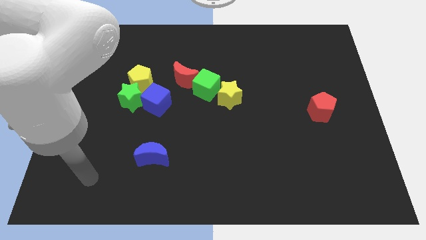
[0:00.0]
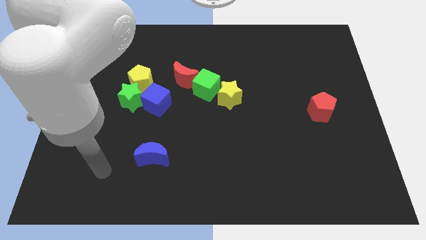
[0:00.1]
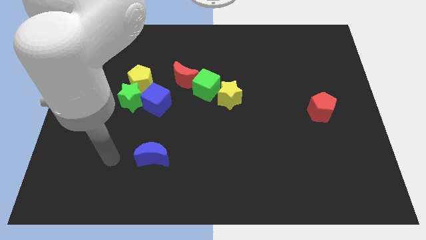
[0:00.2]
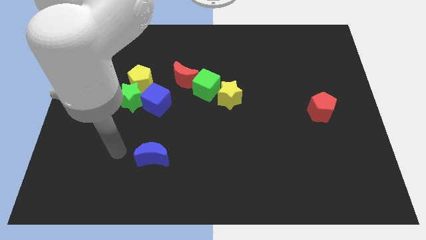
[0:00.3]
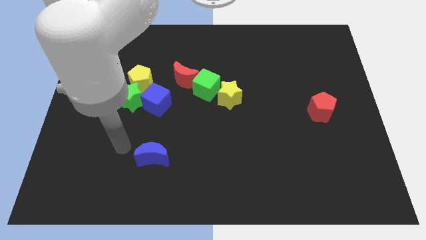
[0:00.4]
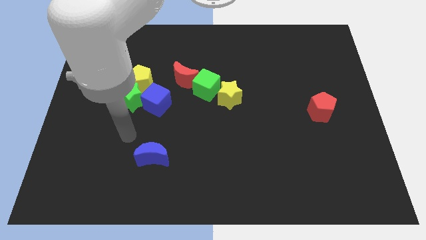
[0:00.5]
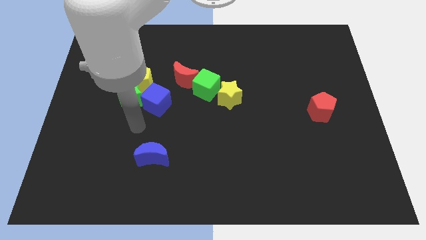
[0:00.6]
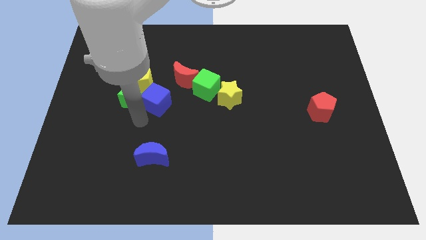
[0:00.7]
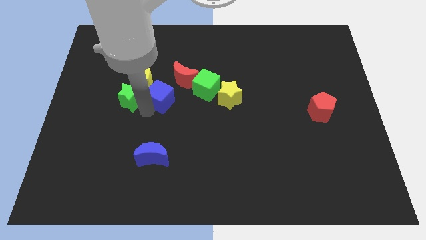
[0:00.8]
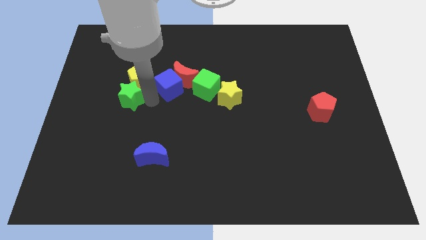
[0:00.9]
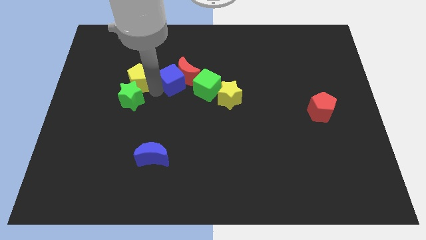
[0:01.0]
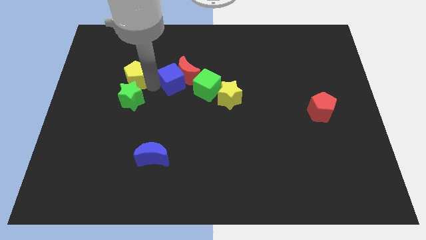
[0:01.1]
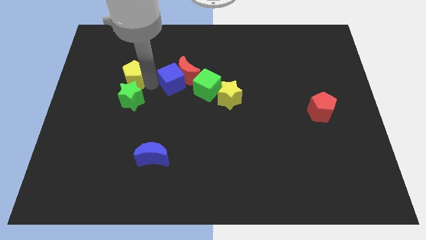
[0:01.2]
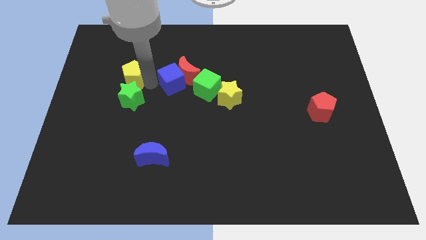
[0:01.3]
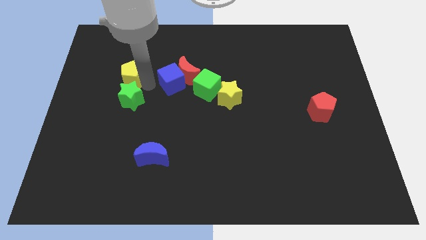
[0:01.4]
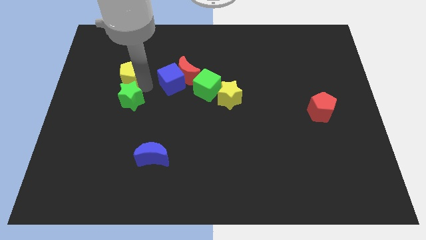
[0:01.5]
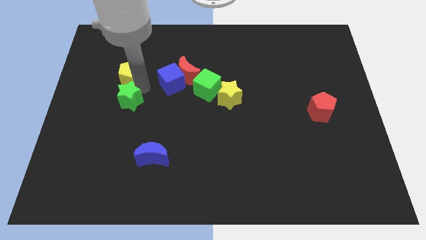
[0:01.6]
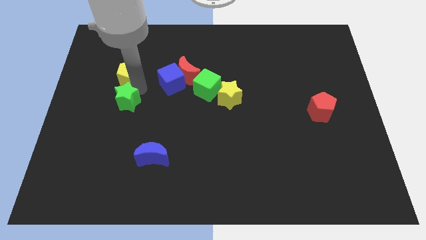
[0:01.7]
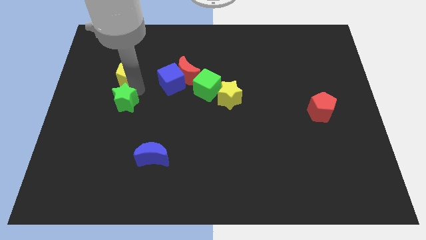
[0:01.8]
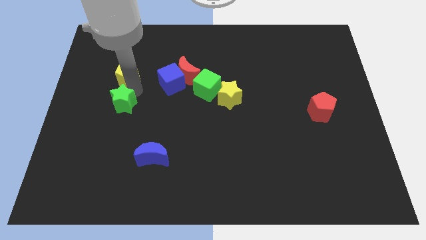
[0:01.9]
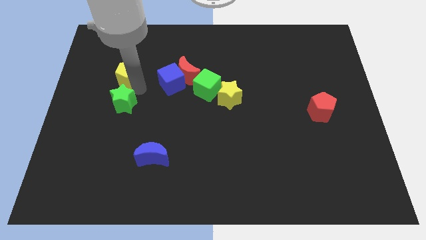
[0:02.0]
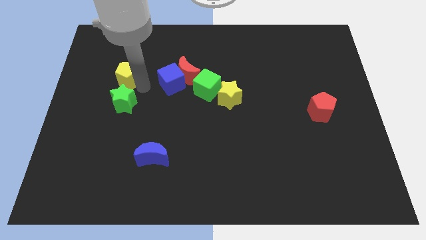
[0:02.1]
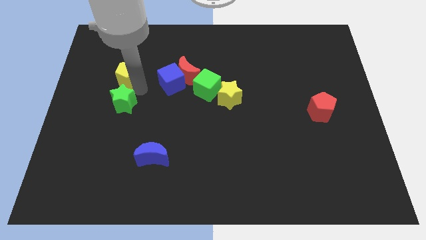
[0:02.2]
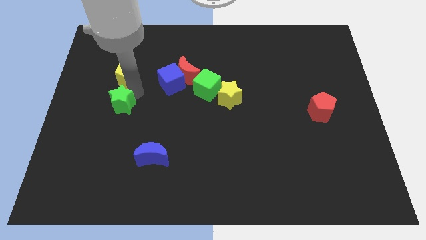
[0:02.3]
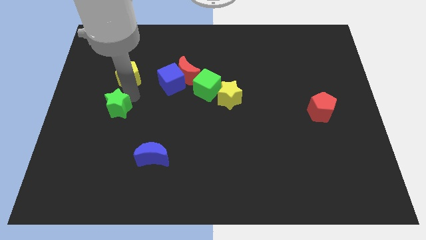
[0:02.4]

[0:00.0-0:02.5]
move the green star away from the yellow pentagon and blue cube

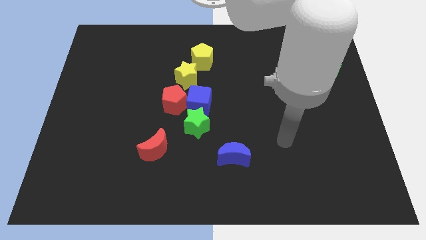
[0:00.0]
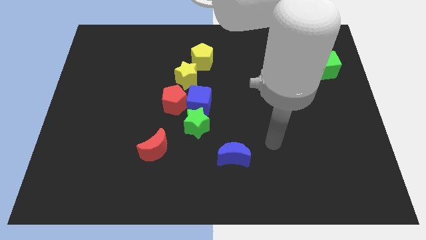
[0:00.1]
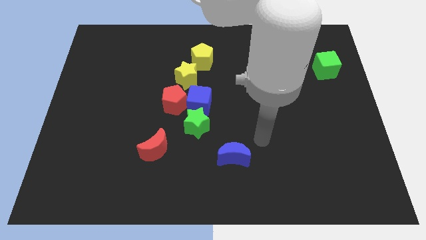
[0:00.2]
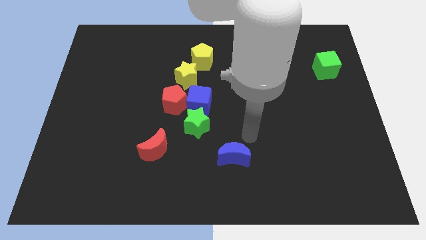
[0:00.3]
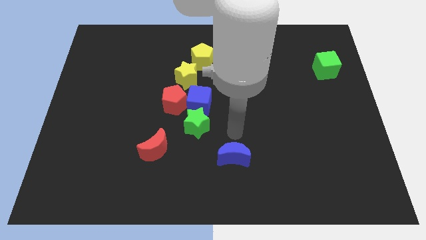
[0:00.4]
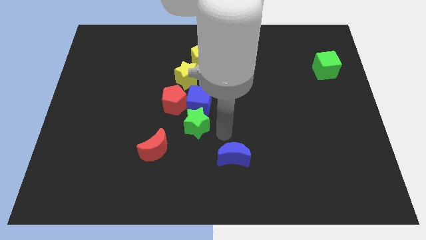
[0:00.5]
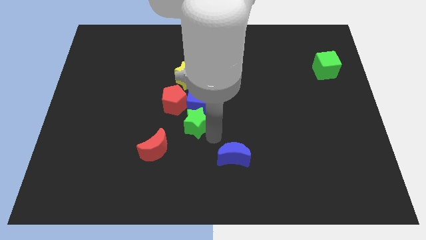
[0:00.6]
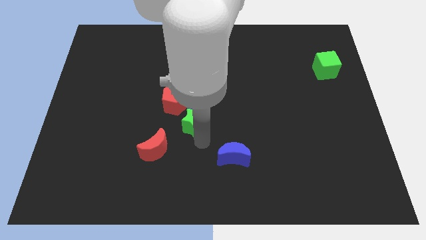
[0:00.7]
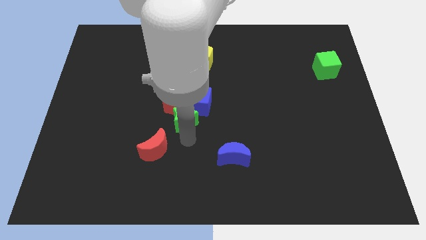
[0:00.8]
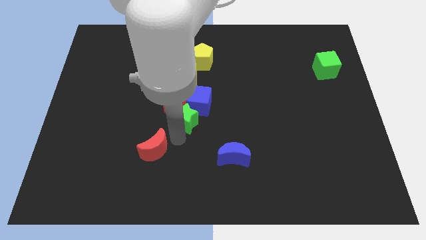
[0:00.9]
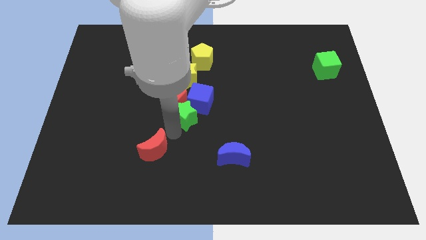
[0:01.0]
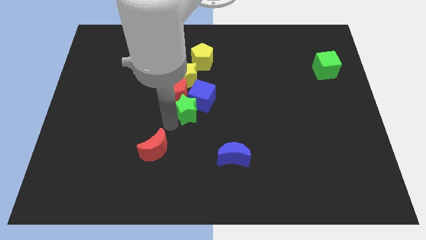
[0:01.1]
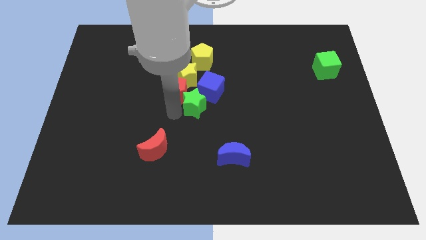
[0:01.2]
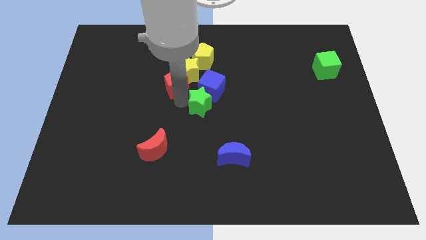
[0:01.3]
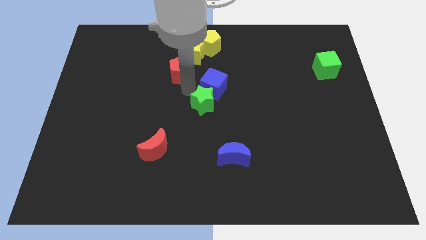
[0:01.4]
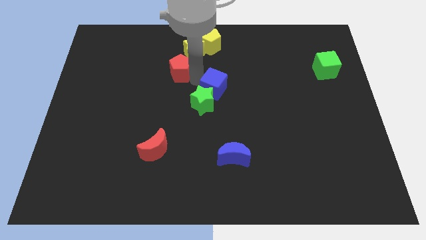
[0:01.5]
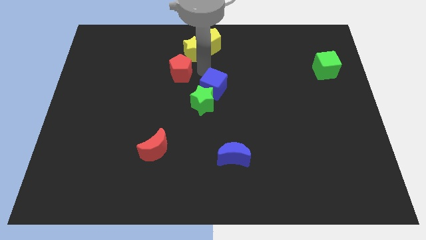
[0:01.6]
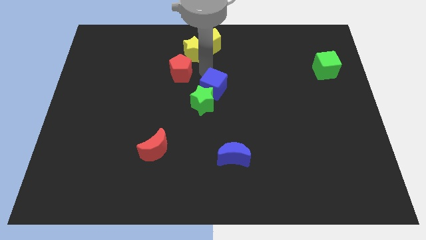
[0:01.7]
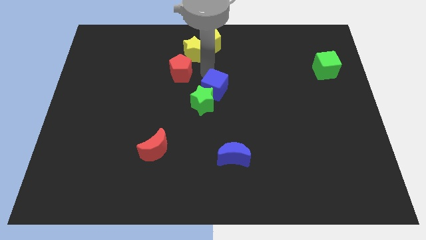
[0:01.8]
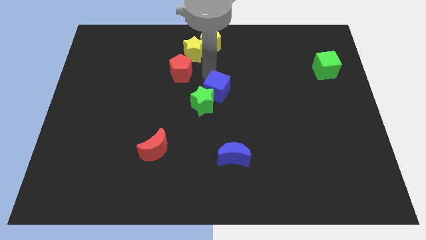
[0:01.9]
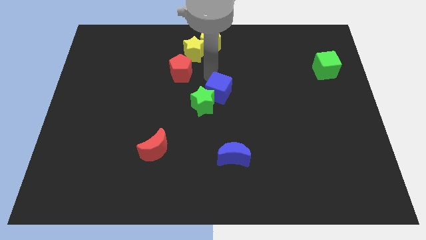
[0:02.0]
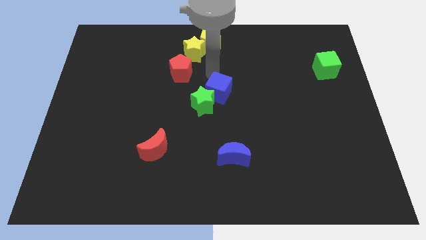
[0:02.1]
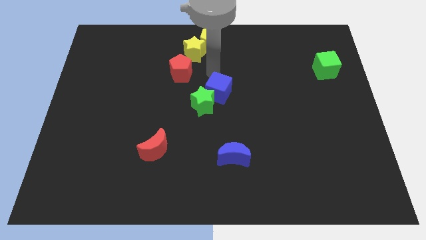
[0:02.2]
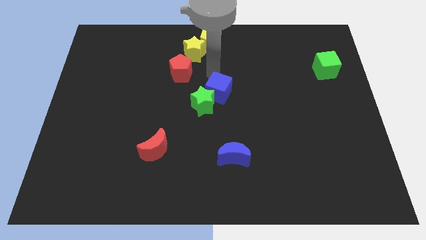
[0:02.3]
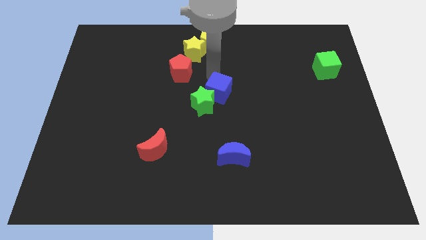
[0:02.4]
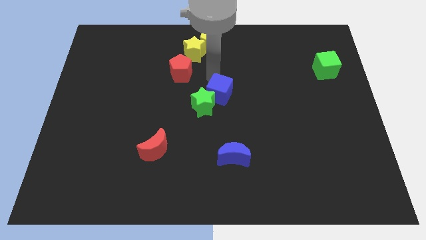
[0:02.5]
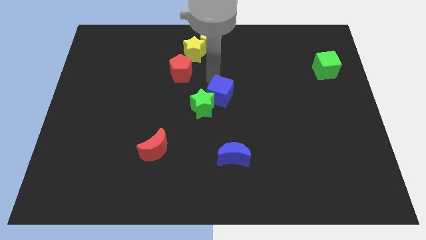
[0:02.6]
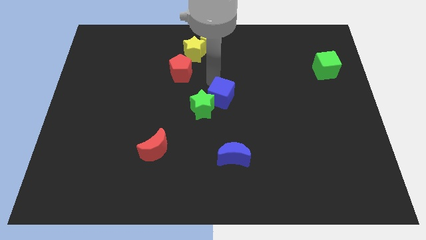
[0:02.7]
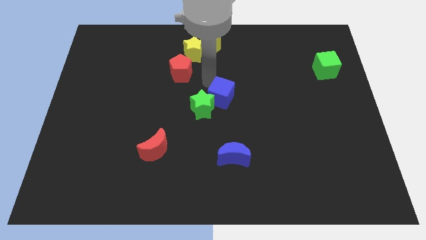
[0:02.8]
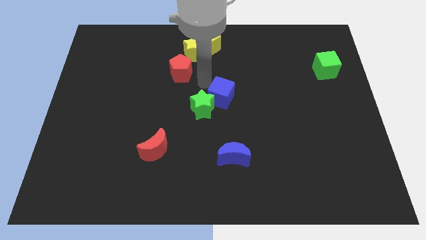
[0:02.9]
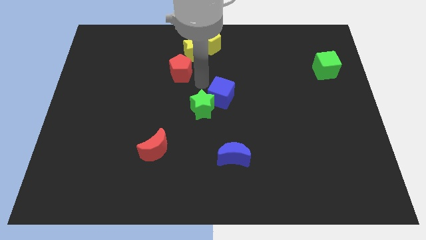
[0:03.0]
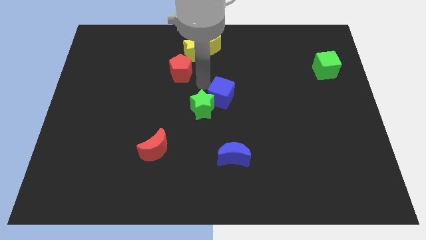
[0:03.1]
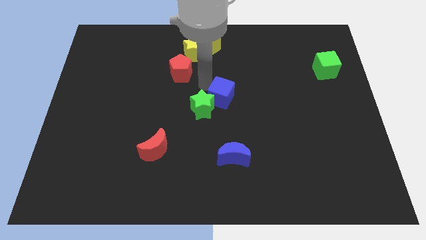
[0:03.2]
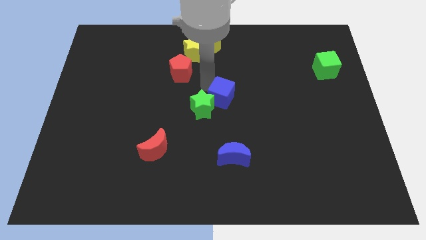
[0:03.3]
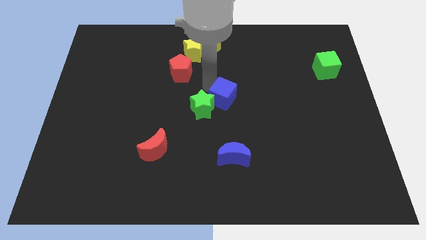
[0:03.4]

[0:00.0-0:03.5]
pull the blue cube apart from the group of blocks

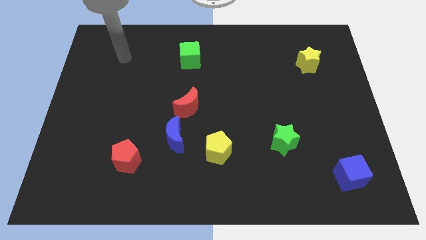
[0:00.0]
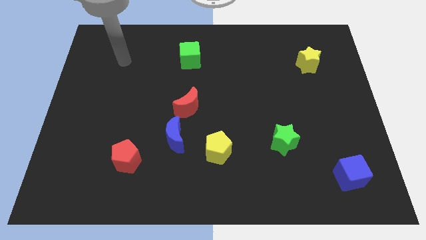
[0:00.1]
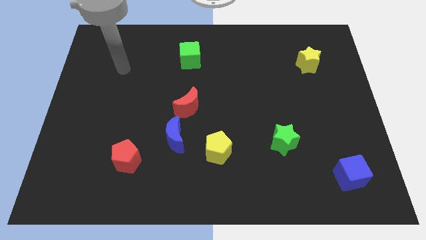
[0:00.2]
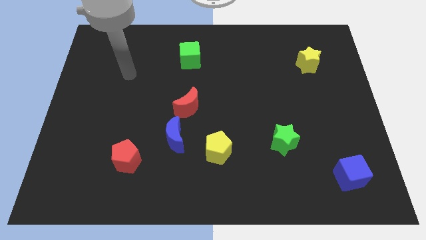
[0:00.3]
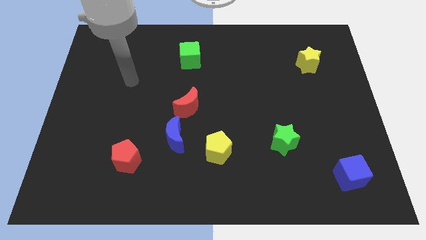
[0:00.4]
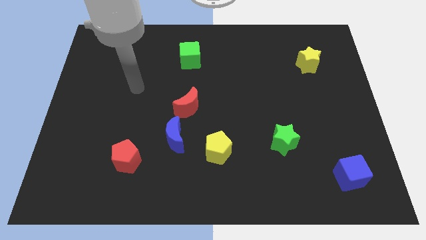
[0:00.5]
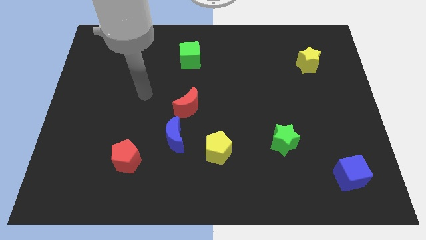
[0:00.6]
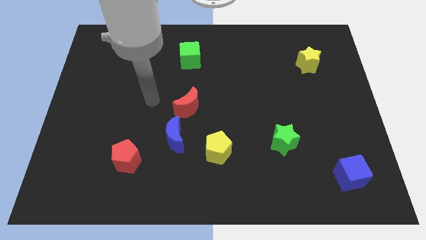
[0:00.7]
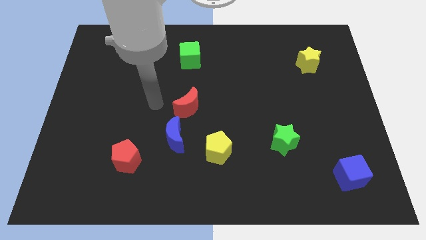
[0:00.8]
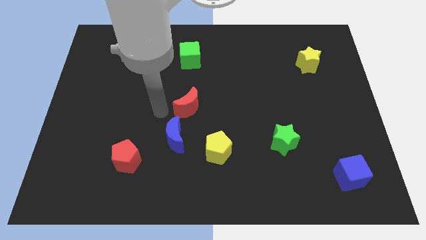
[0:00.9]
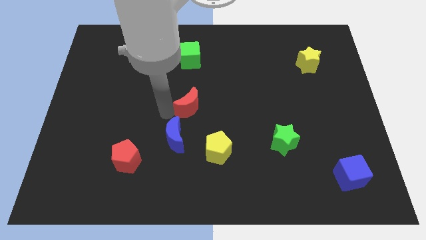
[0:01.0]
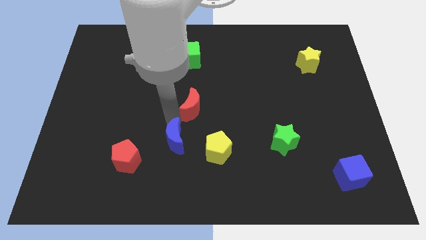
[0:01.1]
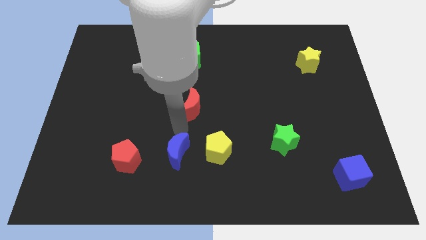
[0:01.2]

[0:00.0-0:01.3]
separate the red moon from the blue moon

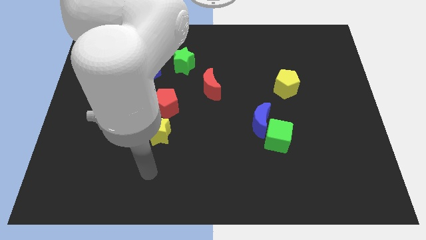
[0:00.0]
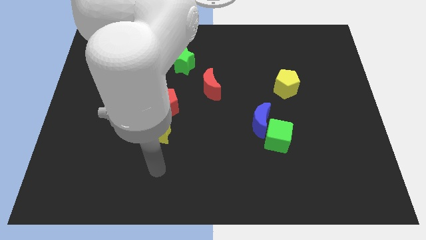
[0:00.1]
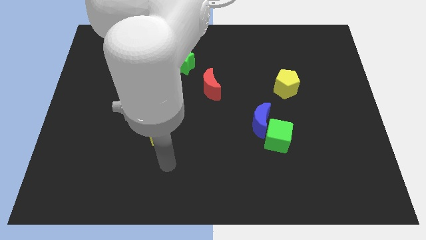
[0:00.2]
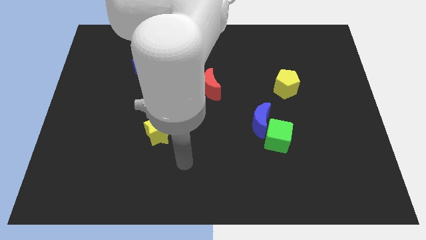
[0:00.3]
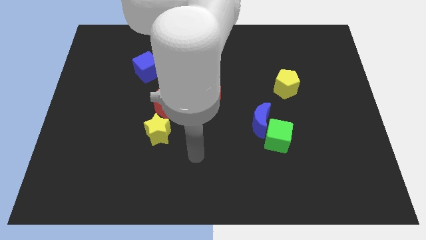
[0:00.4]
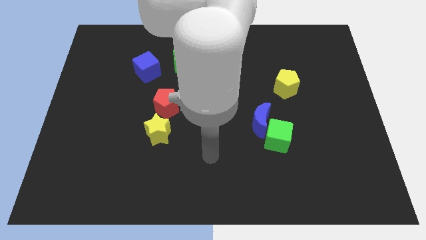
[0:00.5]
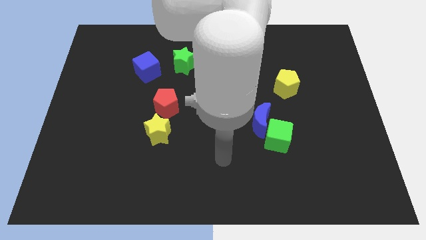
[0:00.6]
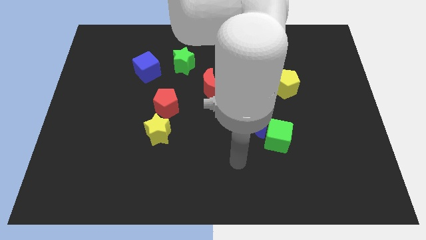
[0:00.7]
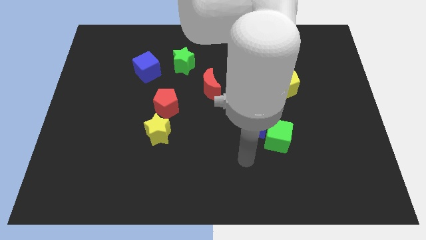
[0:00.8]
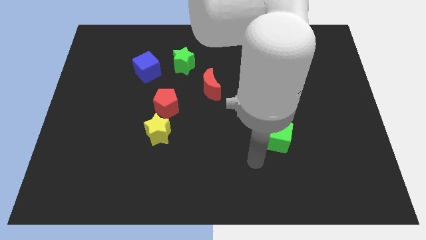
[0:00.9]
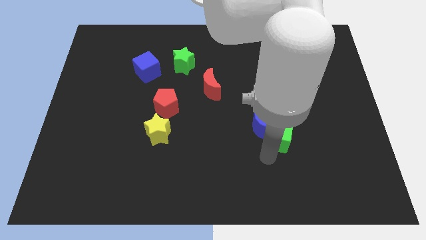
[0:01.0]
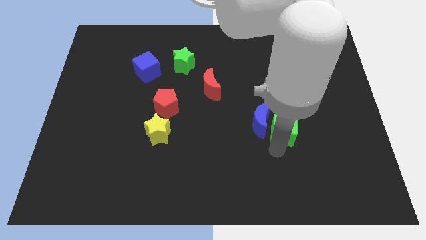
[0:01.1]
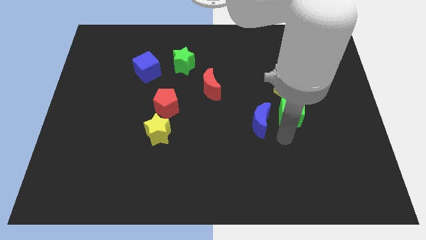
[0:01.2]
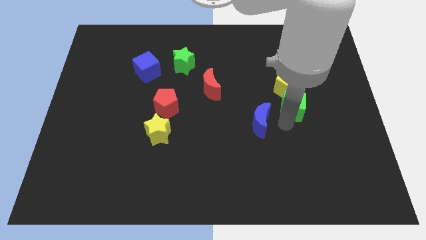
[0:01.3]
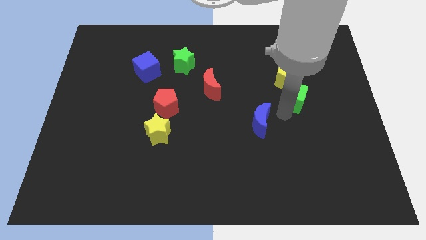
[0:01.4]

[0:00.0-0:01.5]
move the blue moon away from the green cube

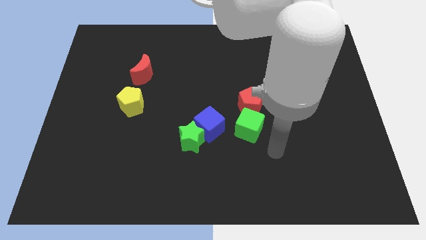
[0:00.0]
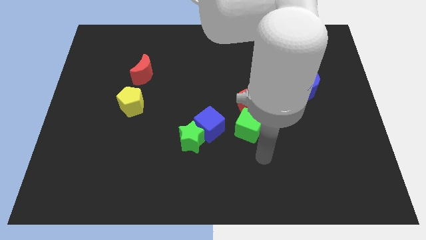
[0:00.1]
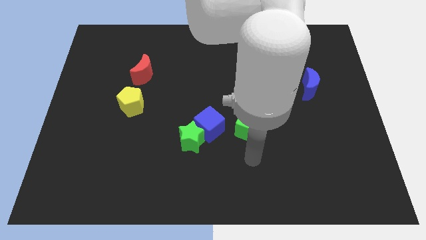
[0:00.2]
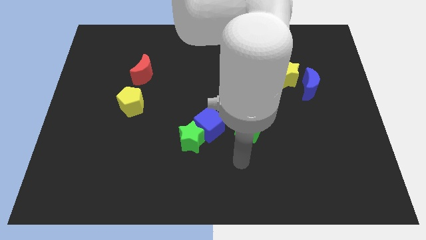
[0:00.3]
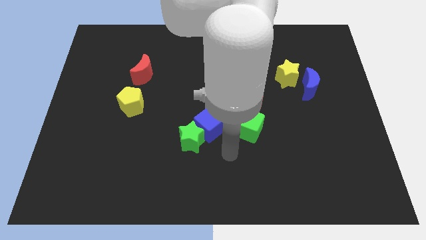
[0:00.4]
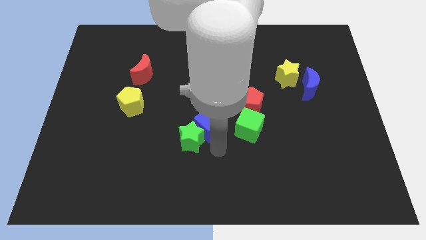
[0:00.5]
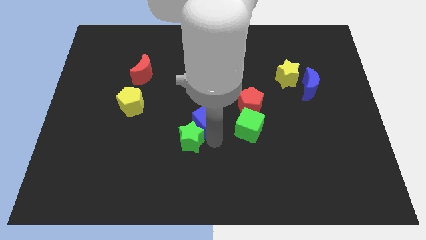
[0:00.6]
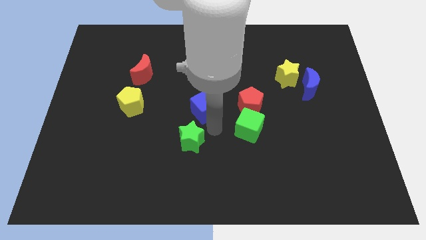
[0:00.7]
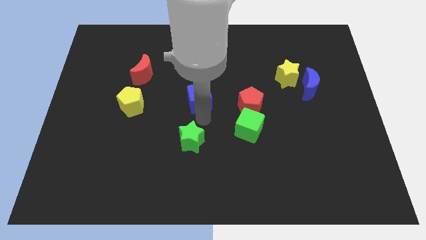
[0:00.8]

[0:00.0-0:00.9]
move the green star away from the blue cube
